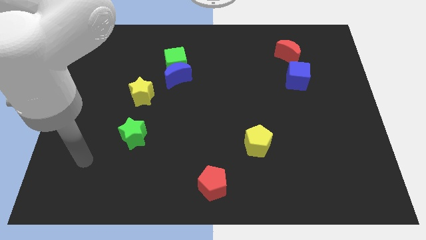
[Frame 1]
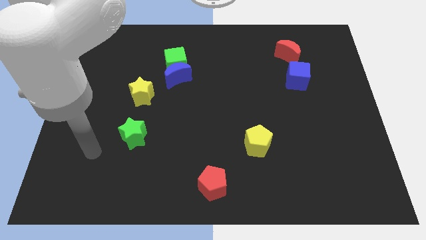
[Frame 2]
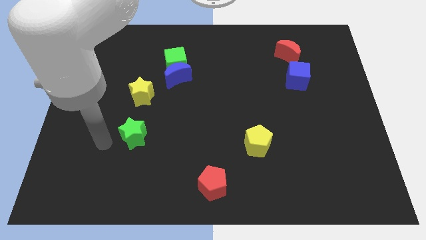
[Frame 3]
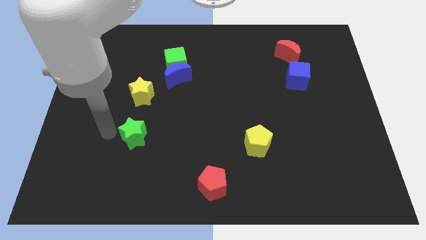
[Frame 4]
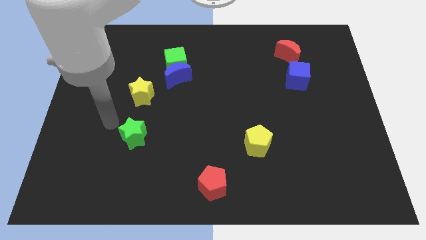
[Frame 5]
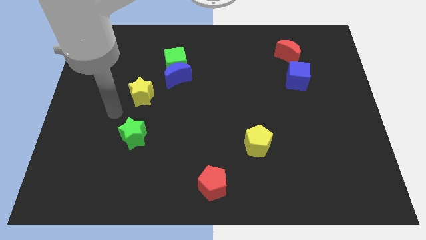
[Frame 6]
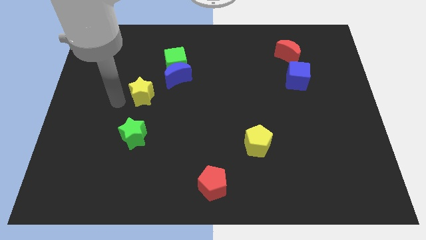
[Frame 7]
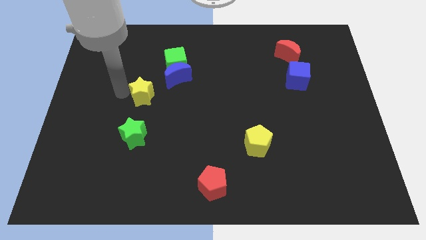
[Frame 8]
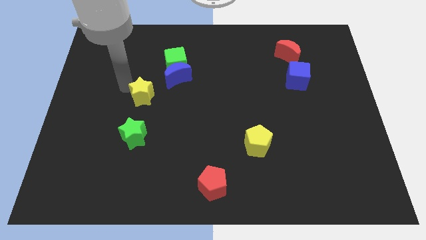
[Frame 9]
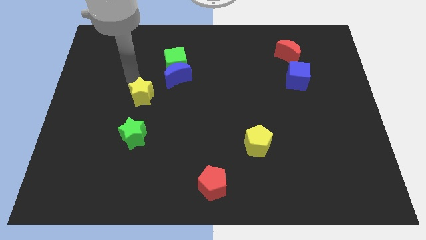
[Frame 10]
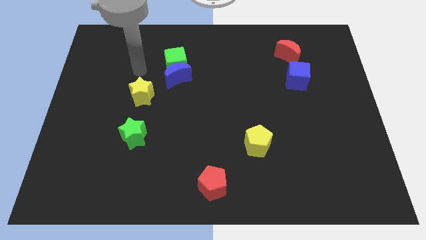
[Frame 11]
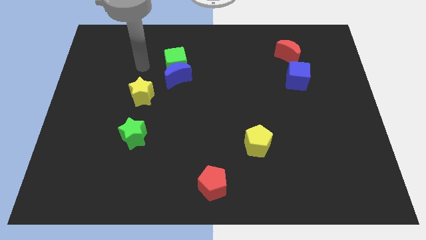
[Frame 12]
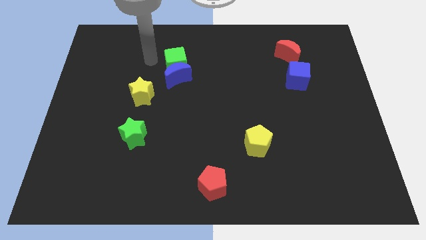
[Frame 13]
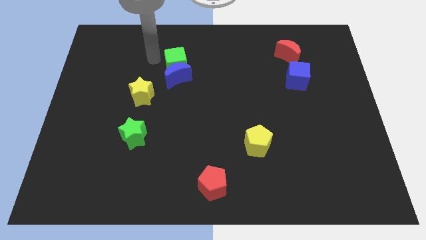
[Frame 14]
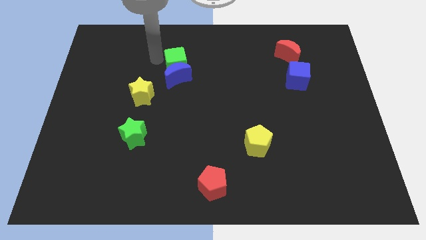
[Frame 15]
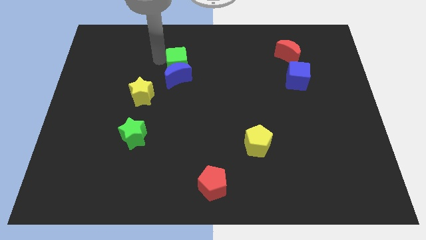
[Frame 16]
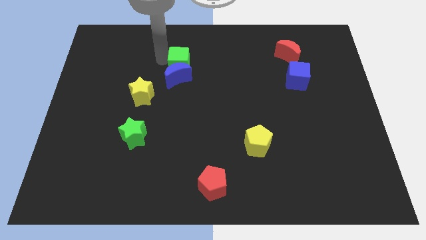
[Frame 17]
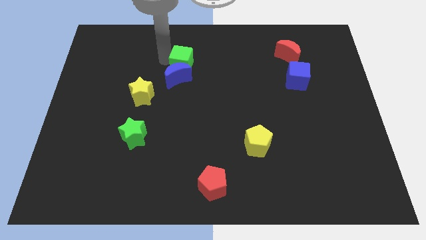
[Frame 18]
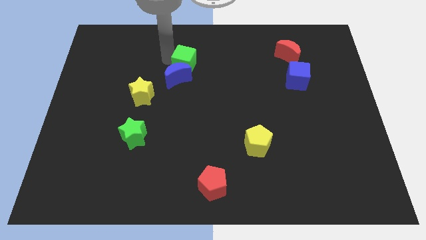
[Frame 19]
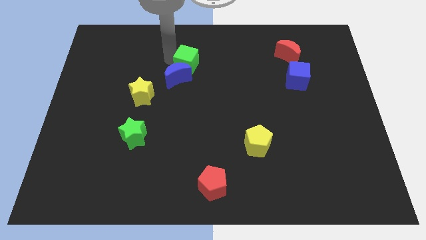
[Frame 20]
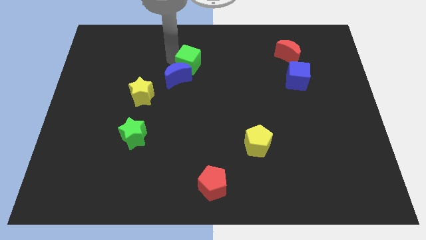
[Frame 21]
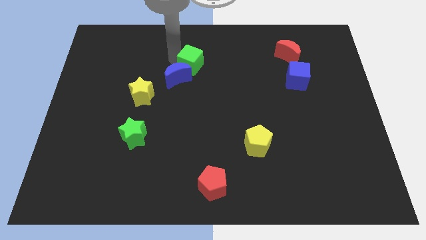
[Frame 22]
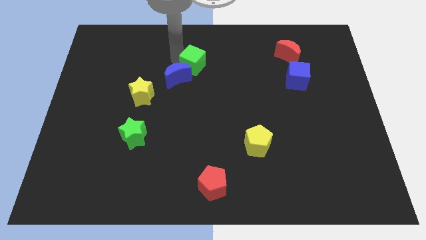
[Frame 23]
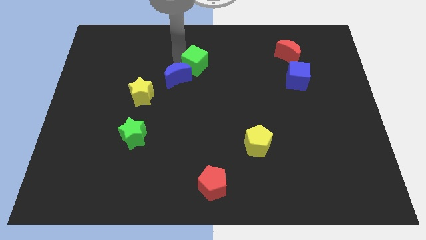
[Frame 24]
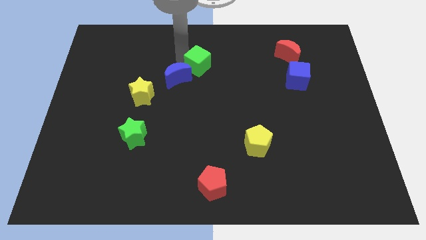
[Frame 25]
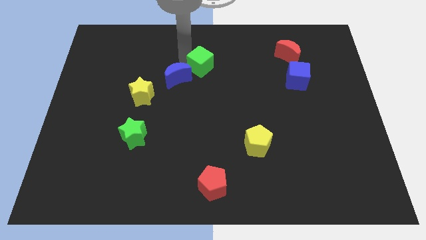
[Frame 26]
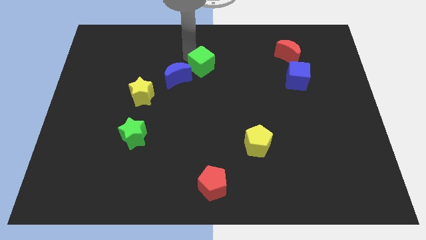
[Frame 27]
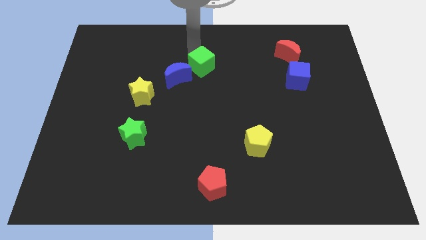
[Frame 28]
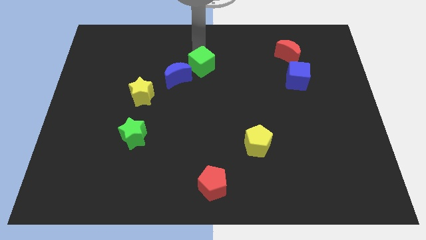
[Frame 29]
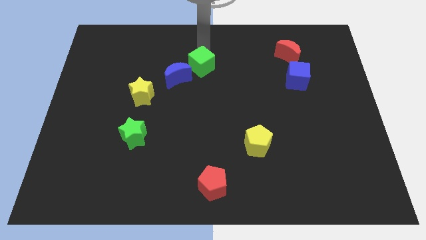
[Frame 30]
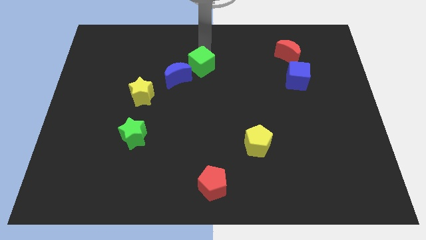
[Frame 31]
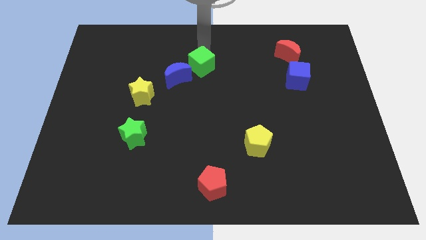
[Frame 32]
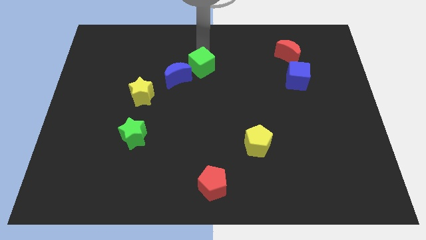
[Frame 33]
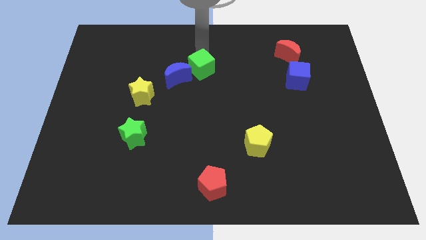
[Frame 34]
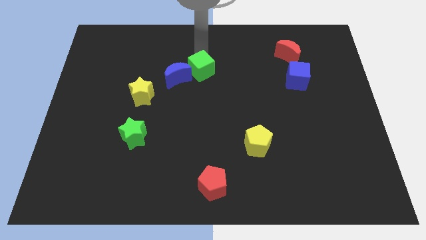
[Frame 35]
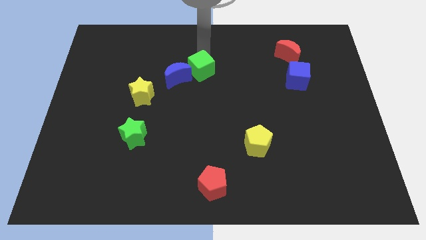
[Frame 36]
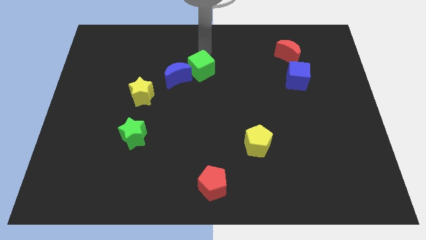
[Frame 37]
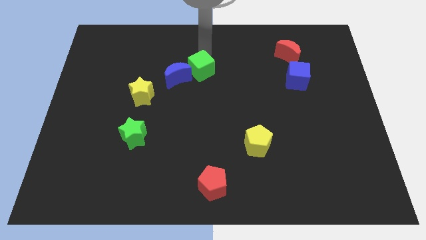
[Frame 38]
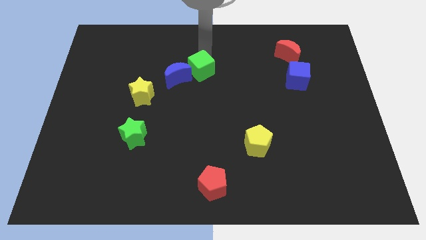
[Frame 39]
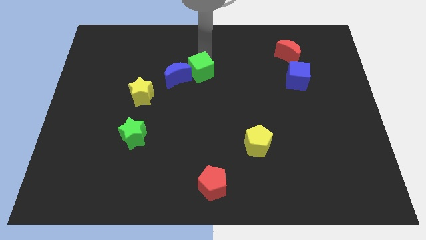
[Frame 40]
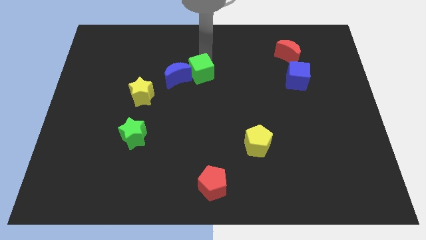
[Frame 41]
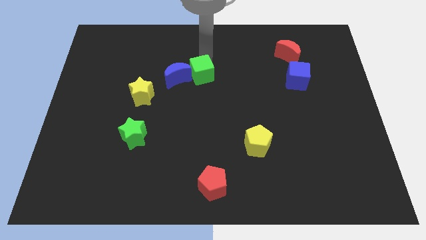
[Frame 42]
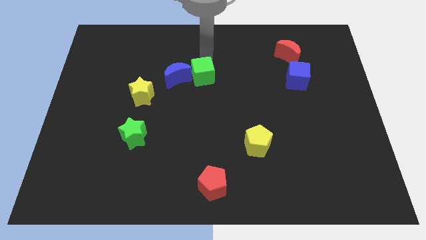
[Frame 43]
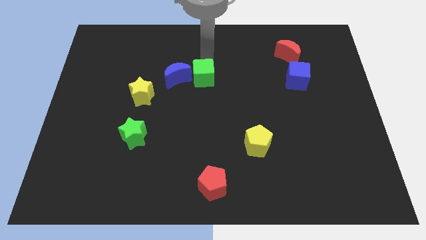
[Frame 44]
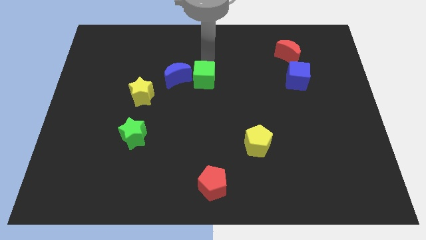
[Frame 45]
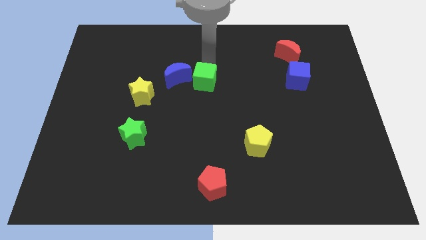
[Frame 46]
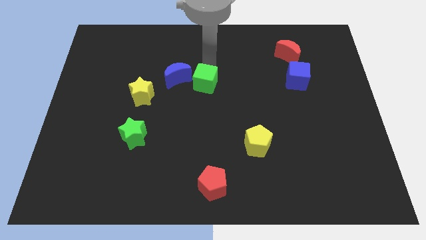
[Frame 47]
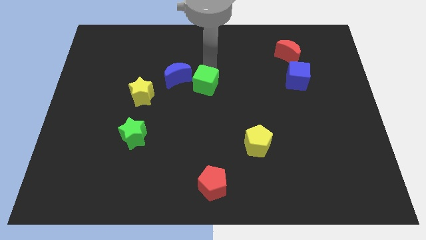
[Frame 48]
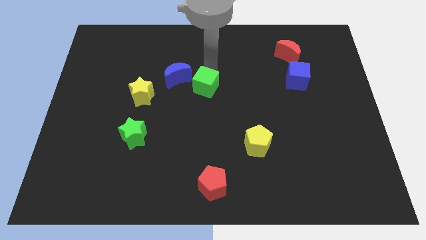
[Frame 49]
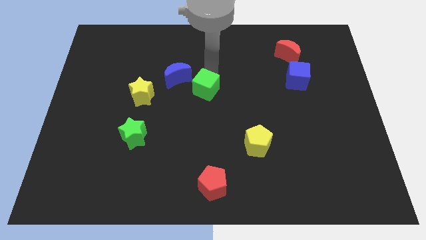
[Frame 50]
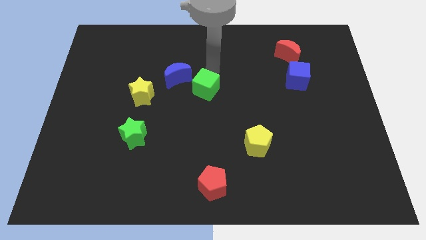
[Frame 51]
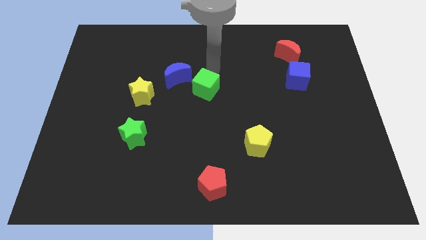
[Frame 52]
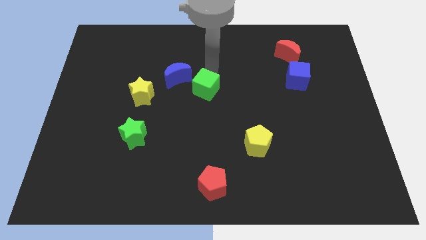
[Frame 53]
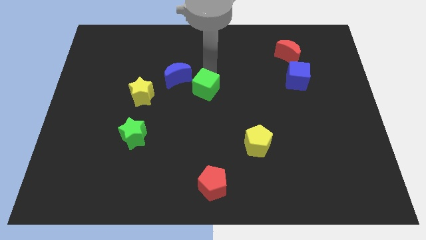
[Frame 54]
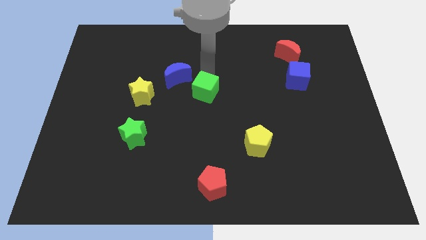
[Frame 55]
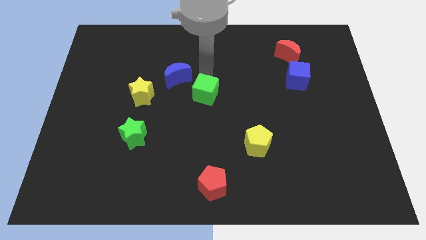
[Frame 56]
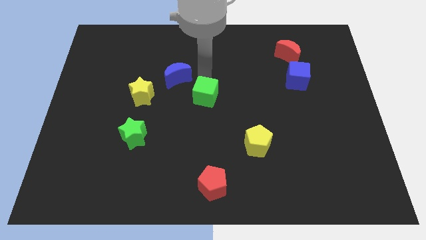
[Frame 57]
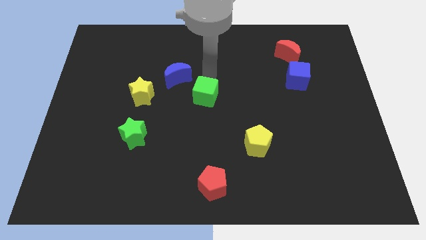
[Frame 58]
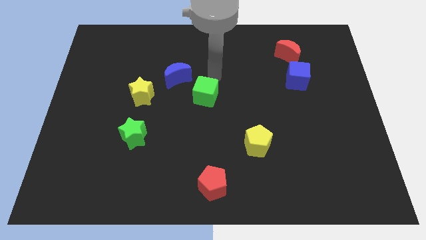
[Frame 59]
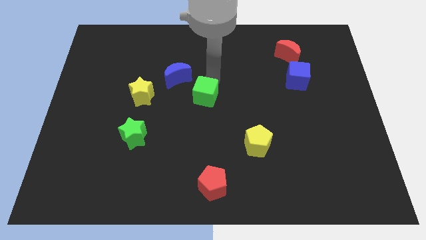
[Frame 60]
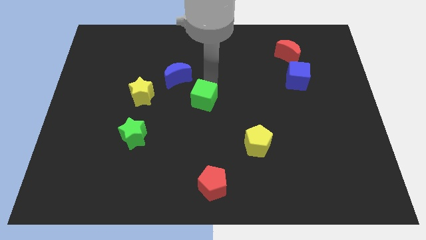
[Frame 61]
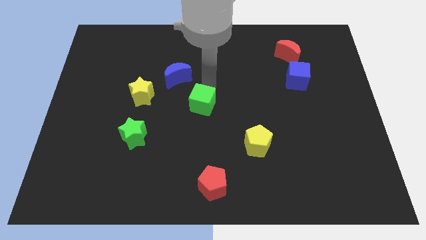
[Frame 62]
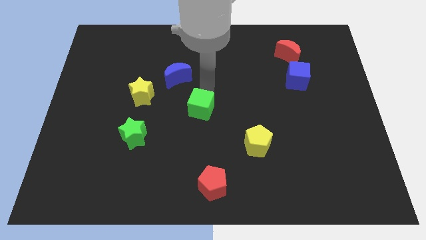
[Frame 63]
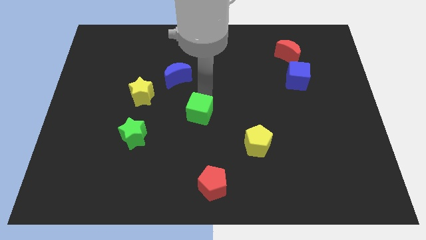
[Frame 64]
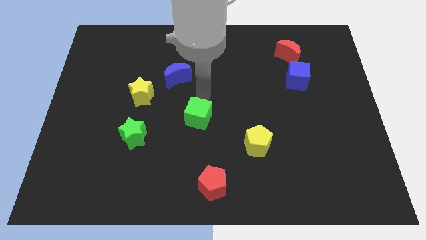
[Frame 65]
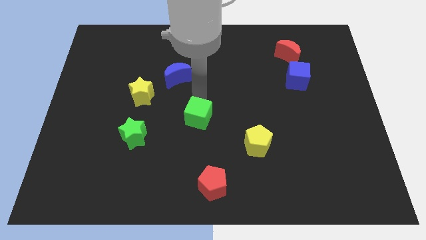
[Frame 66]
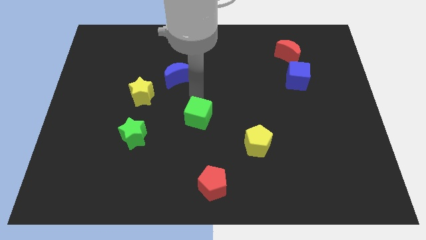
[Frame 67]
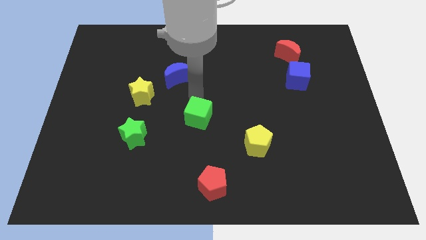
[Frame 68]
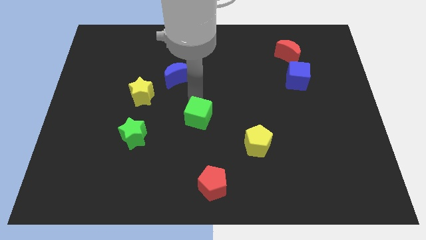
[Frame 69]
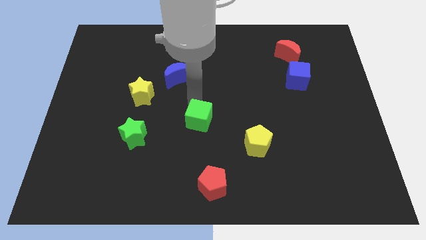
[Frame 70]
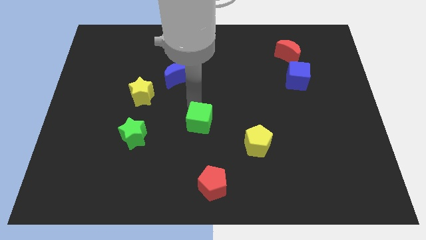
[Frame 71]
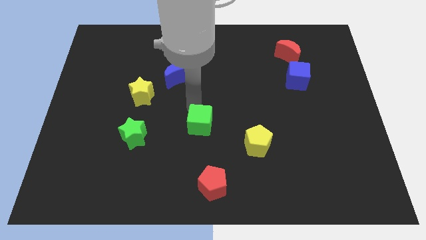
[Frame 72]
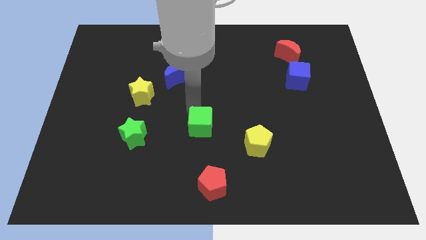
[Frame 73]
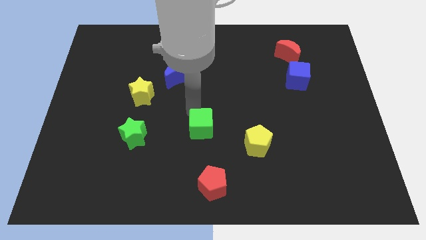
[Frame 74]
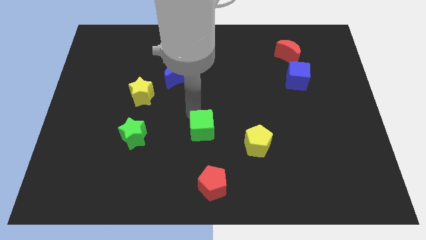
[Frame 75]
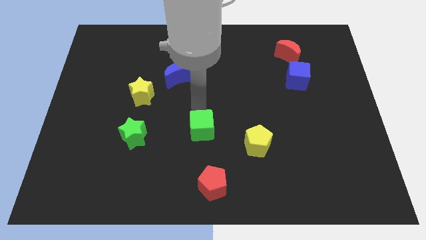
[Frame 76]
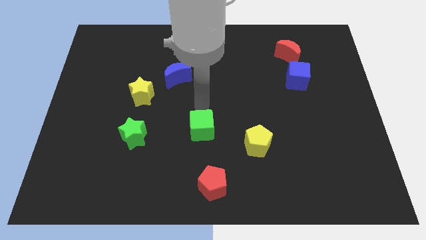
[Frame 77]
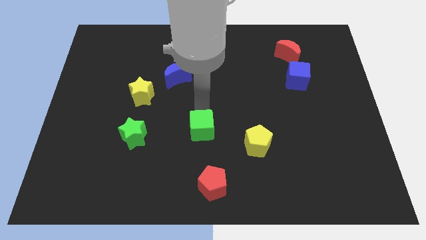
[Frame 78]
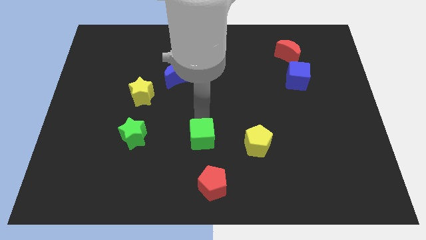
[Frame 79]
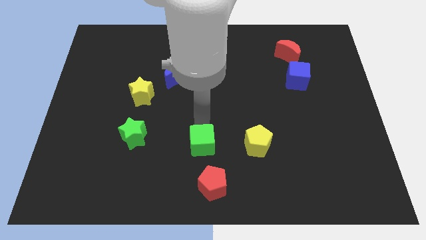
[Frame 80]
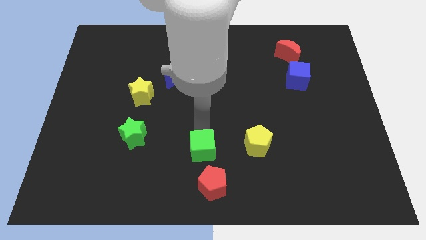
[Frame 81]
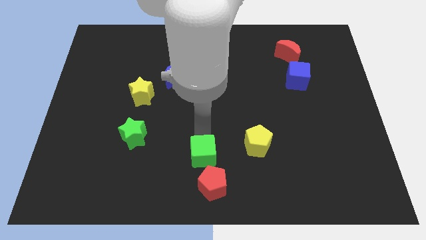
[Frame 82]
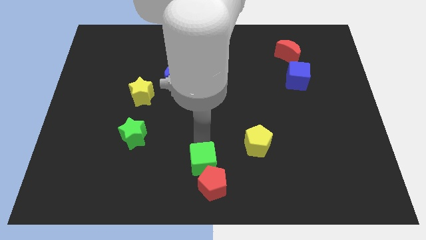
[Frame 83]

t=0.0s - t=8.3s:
push the green cube towards the red pentagon
